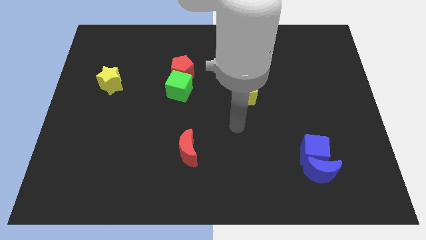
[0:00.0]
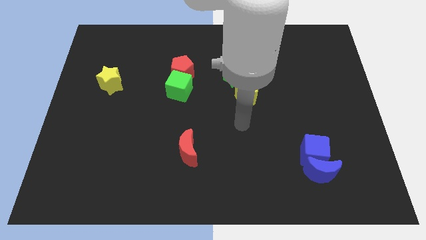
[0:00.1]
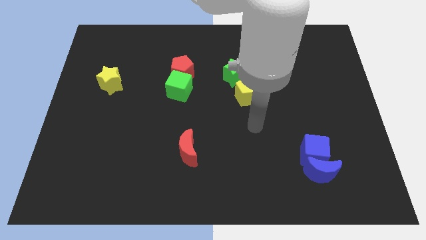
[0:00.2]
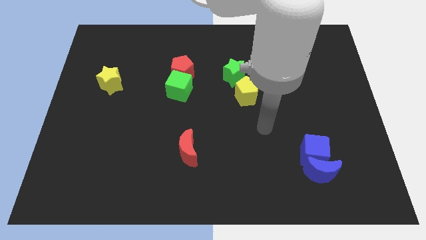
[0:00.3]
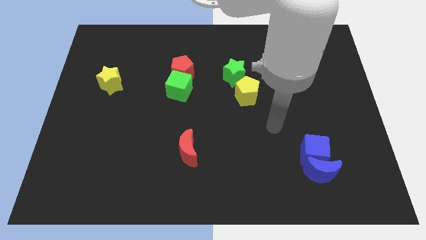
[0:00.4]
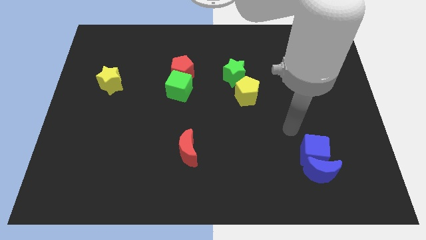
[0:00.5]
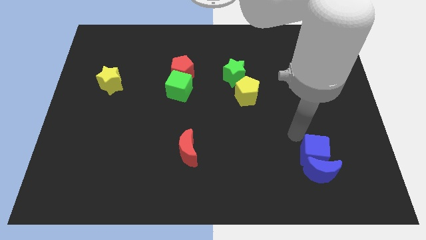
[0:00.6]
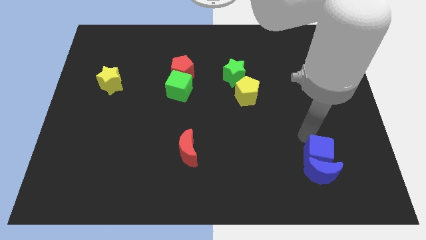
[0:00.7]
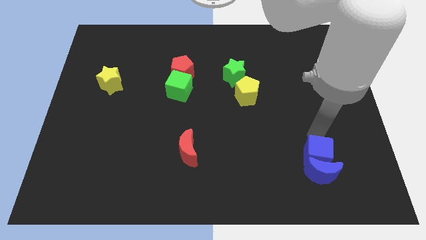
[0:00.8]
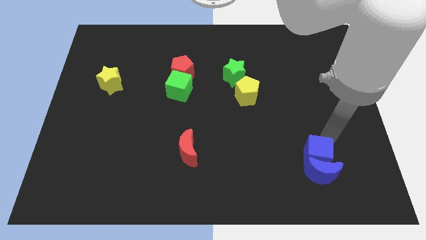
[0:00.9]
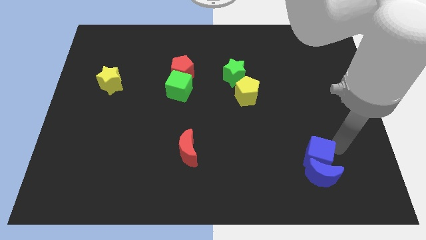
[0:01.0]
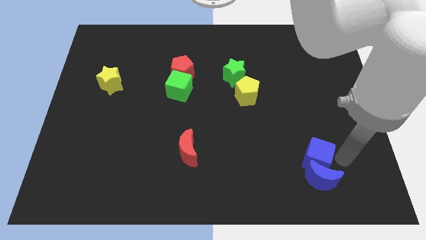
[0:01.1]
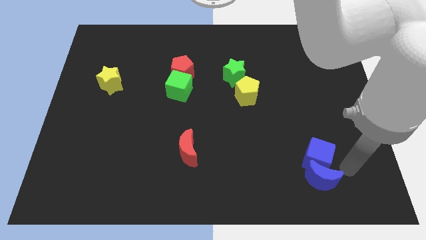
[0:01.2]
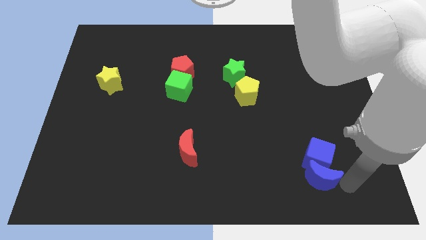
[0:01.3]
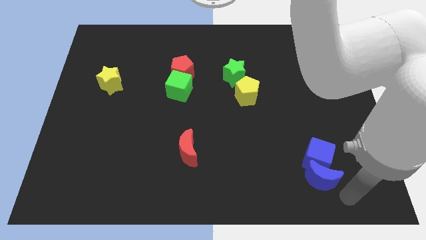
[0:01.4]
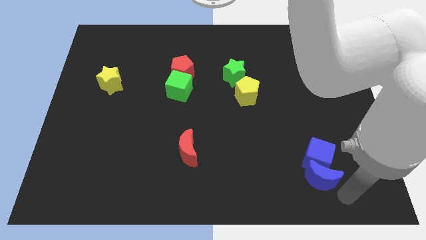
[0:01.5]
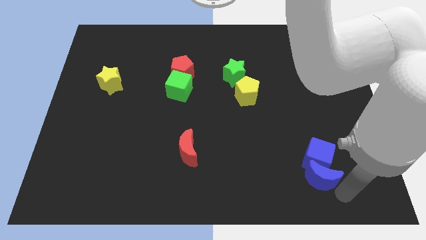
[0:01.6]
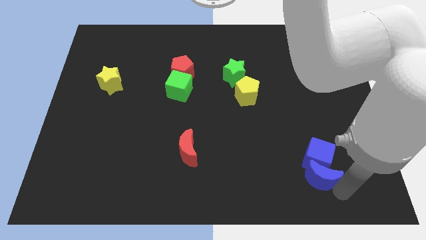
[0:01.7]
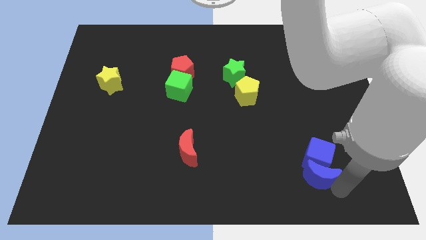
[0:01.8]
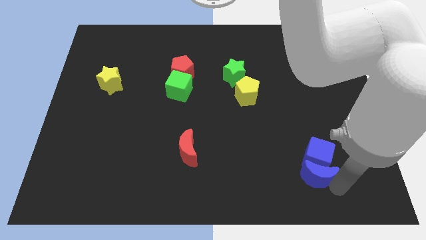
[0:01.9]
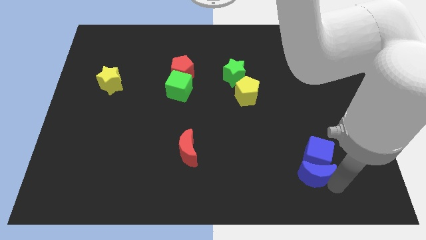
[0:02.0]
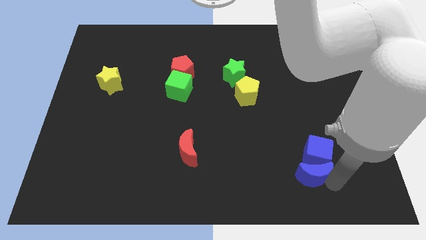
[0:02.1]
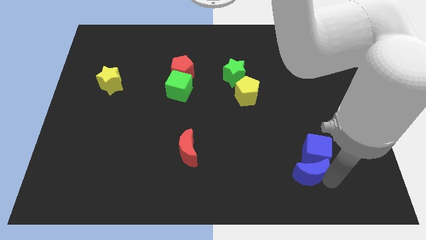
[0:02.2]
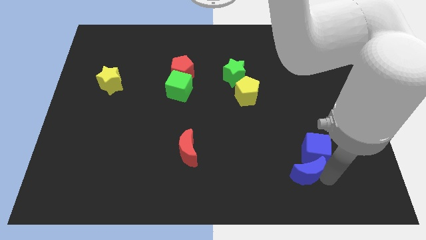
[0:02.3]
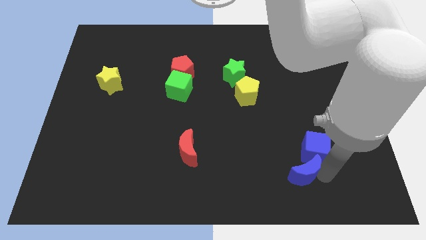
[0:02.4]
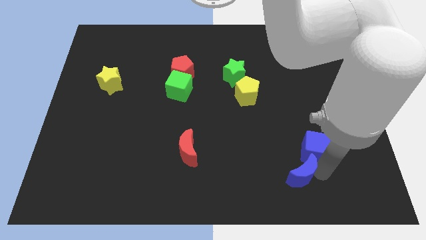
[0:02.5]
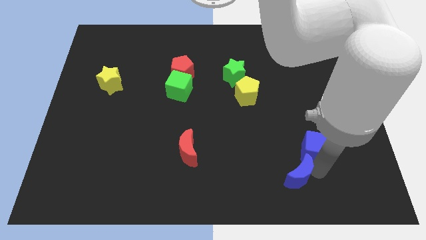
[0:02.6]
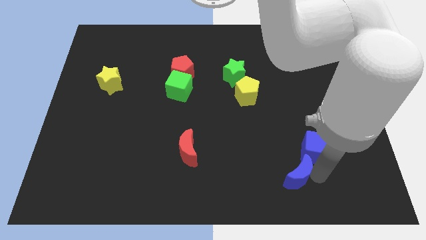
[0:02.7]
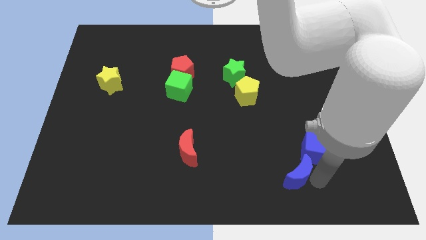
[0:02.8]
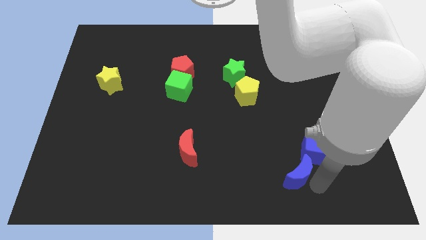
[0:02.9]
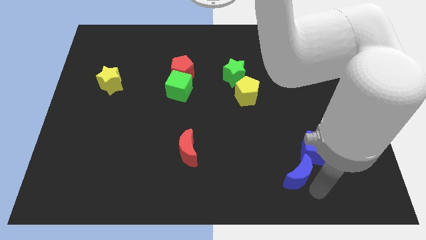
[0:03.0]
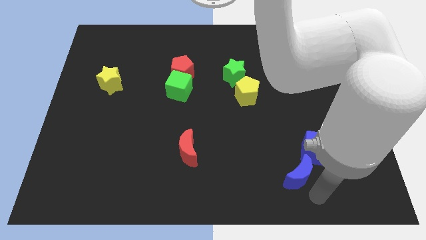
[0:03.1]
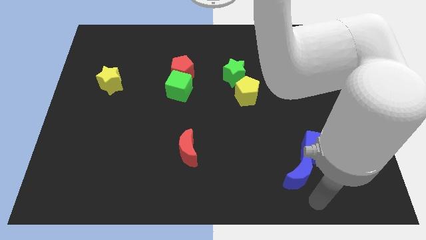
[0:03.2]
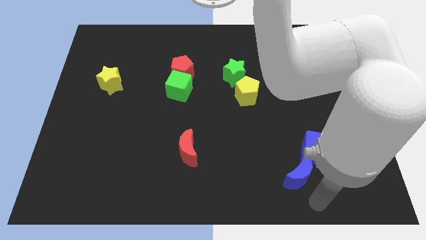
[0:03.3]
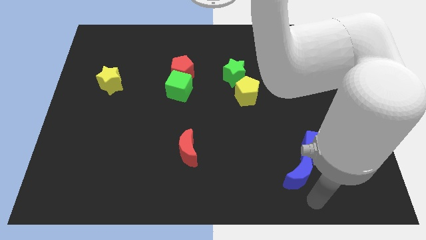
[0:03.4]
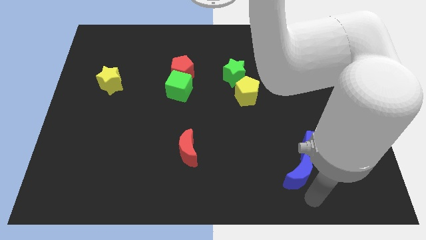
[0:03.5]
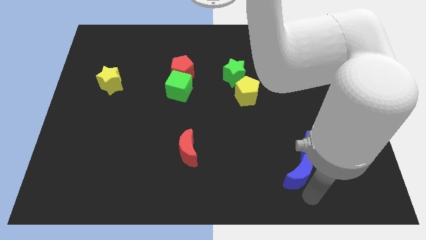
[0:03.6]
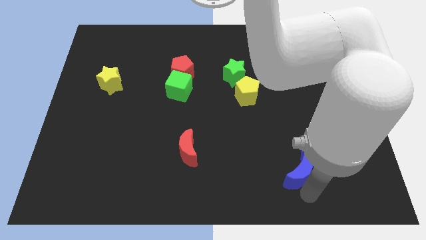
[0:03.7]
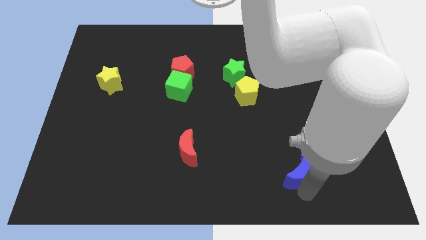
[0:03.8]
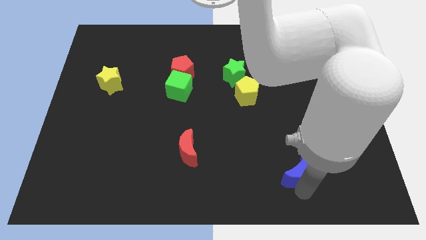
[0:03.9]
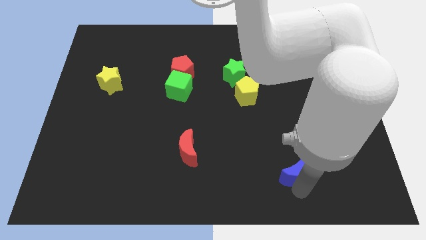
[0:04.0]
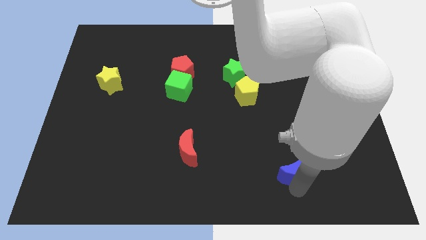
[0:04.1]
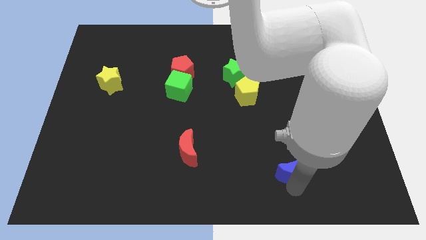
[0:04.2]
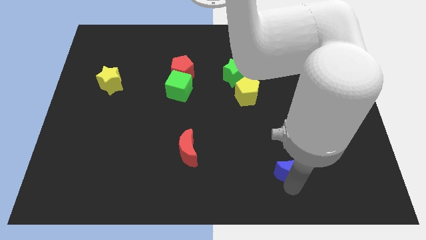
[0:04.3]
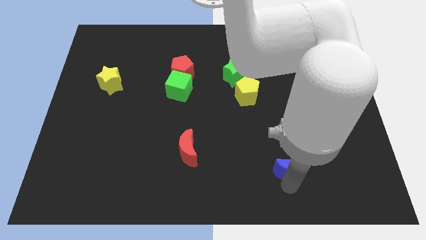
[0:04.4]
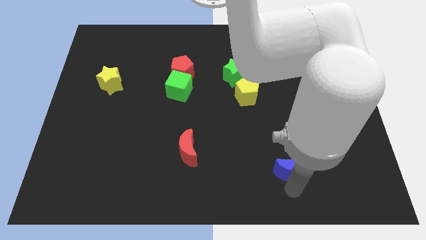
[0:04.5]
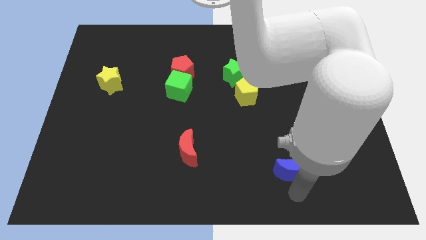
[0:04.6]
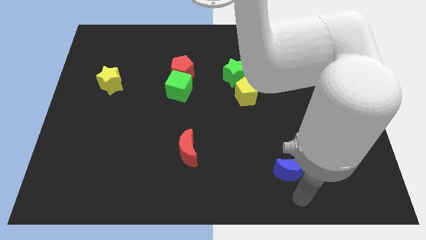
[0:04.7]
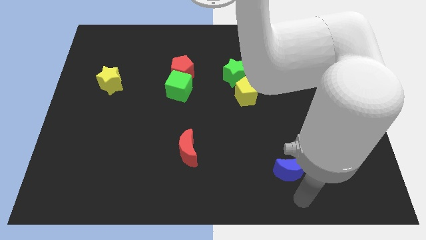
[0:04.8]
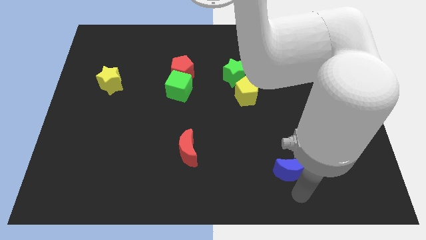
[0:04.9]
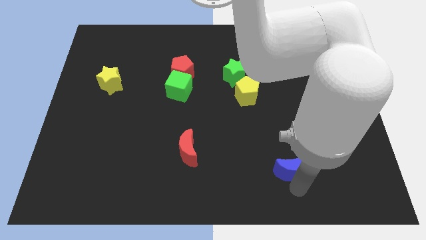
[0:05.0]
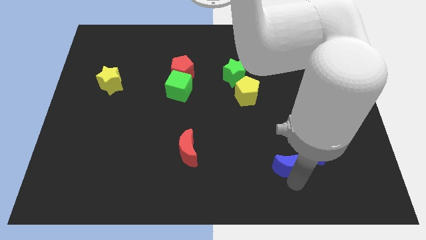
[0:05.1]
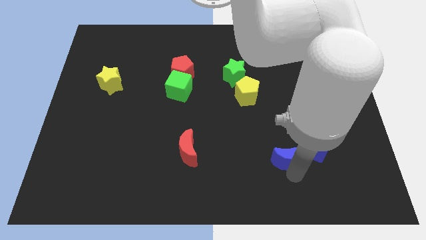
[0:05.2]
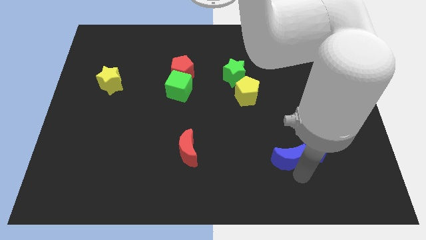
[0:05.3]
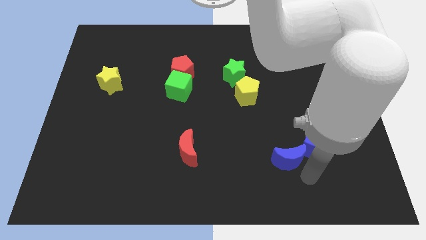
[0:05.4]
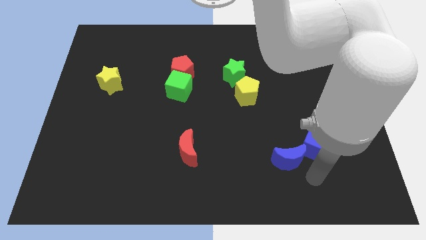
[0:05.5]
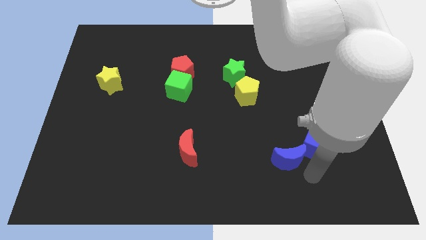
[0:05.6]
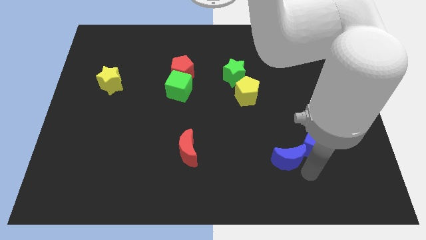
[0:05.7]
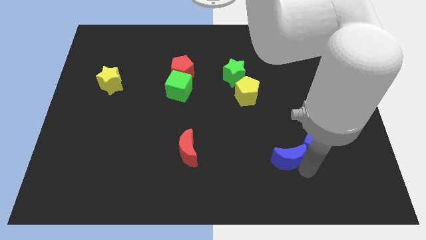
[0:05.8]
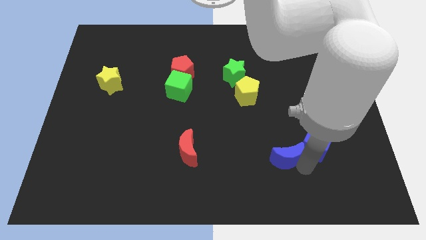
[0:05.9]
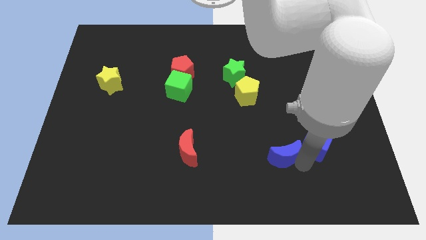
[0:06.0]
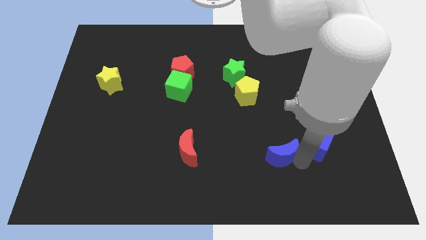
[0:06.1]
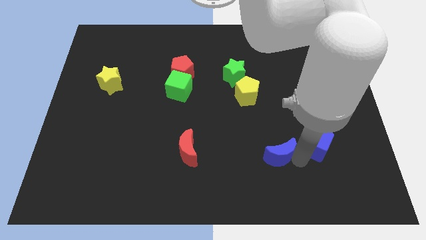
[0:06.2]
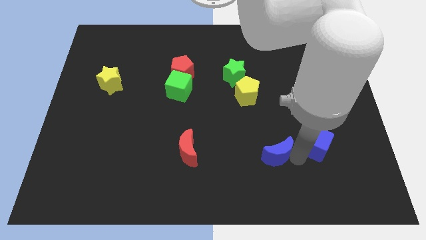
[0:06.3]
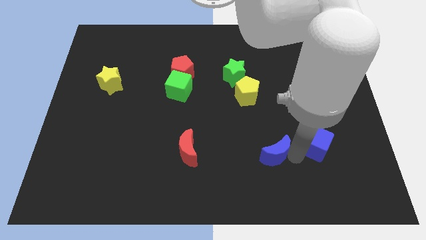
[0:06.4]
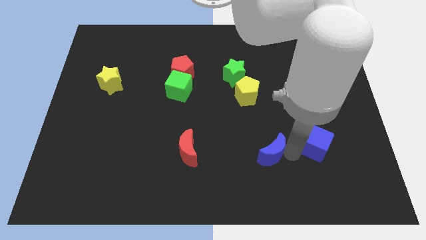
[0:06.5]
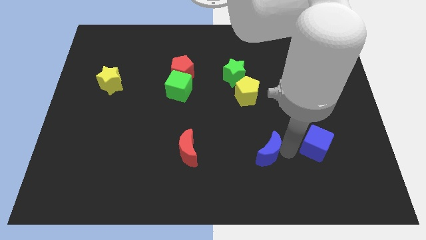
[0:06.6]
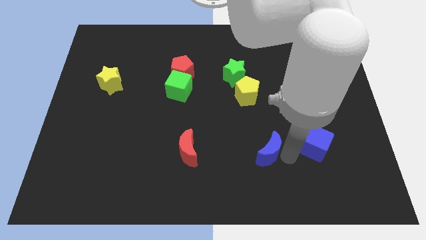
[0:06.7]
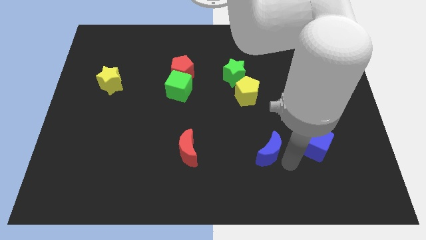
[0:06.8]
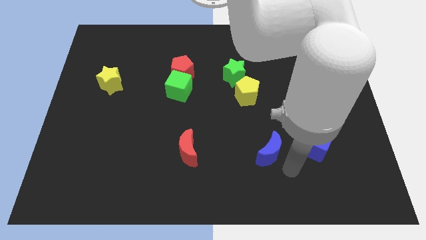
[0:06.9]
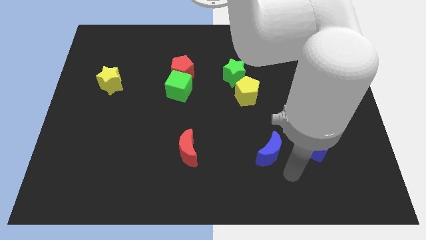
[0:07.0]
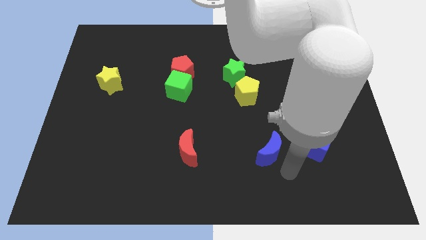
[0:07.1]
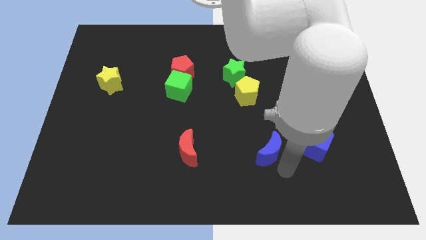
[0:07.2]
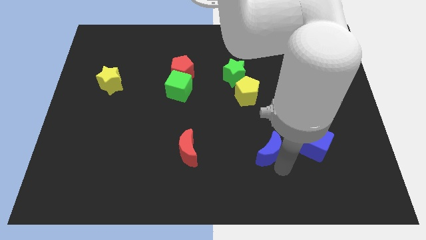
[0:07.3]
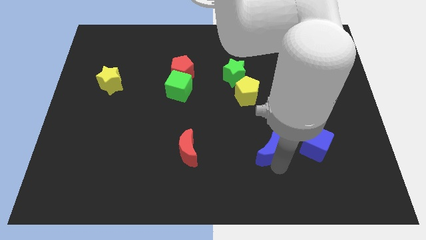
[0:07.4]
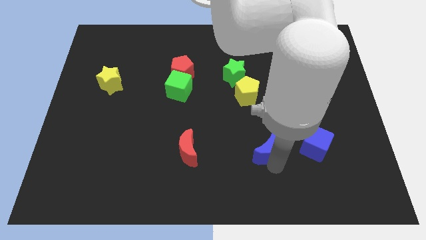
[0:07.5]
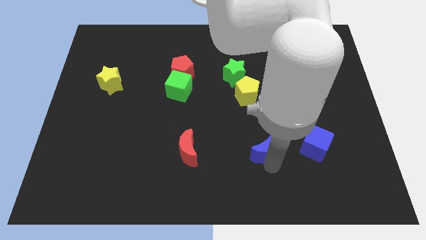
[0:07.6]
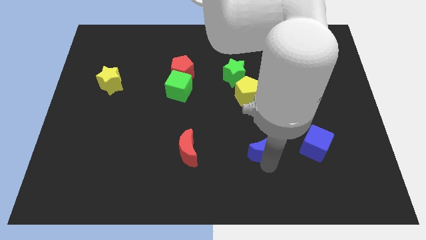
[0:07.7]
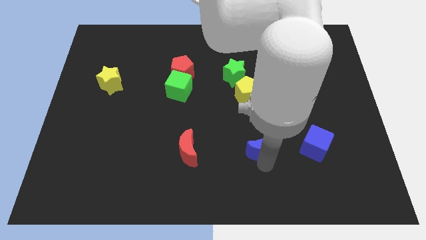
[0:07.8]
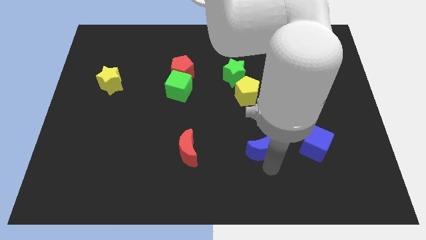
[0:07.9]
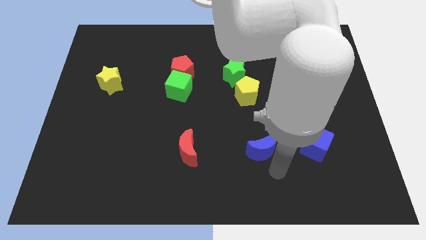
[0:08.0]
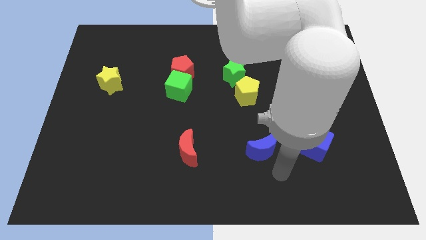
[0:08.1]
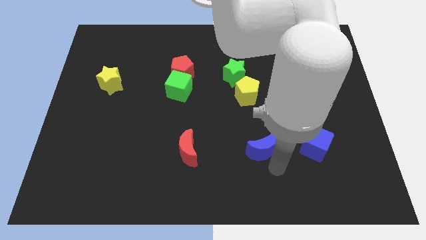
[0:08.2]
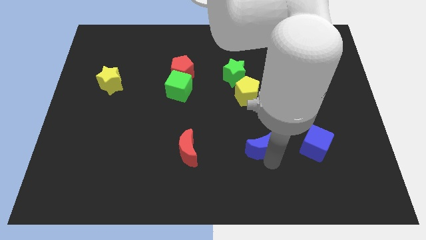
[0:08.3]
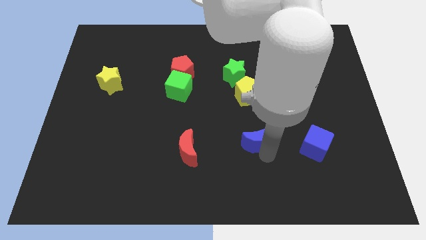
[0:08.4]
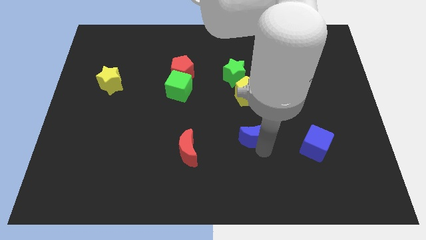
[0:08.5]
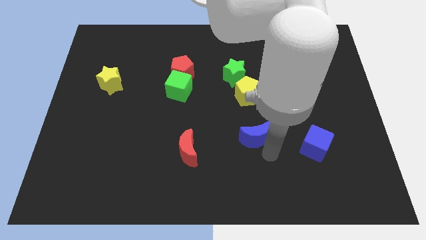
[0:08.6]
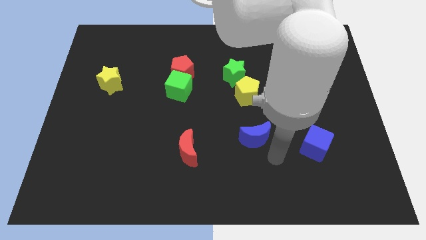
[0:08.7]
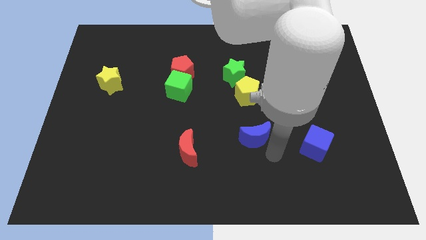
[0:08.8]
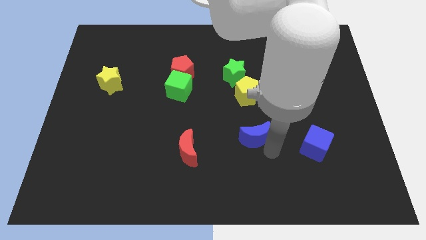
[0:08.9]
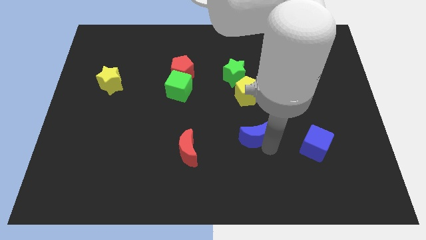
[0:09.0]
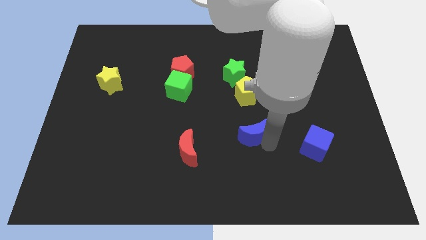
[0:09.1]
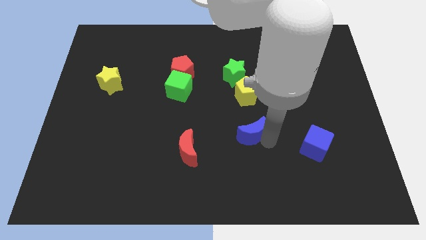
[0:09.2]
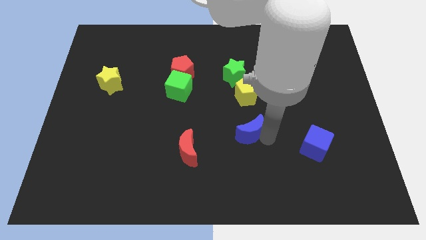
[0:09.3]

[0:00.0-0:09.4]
move the blue moon to the center of the board
